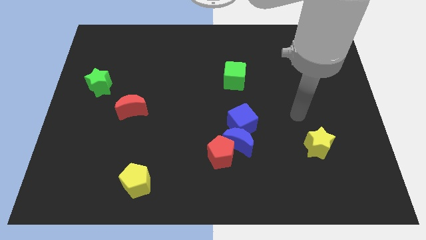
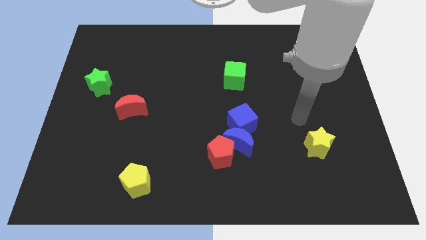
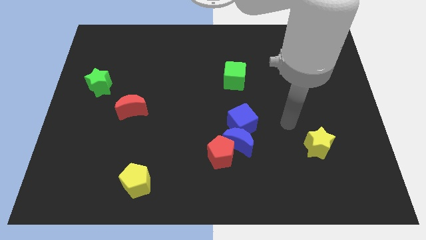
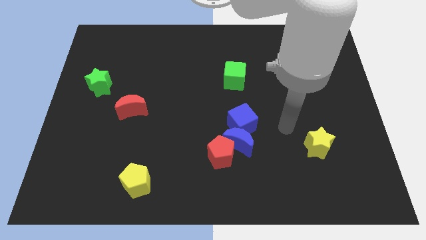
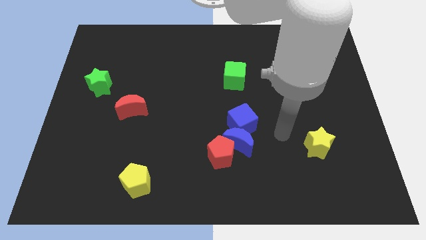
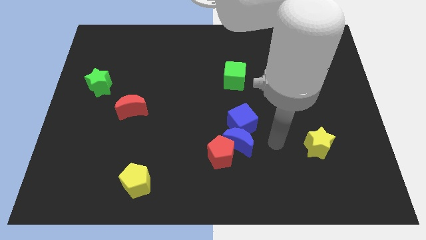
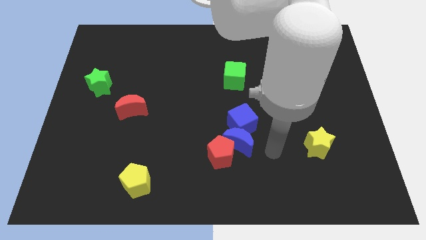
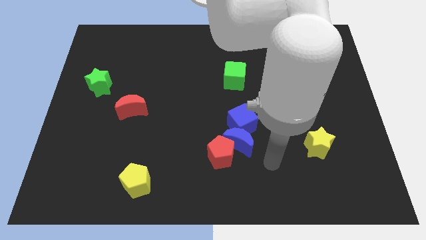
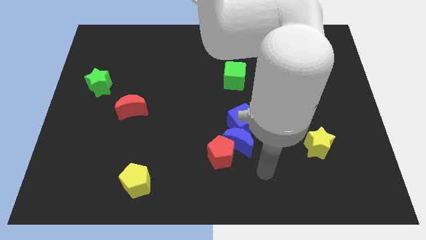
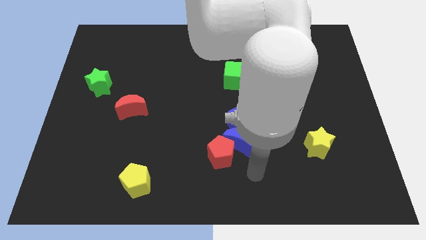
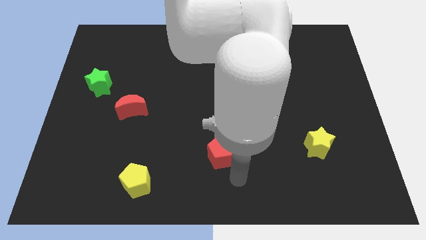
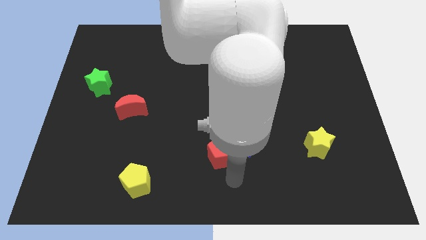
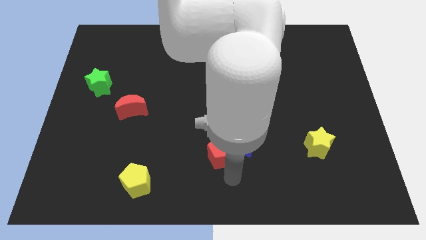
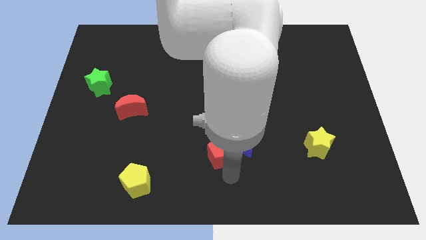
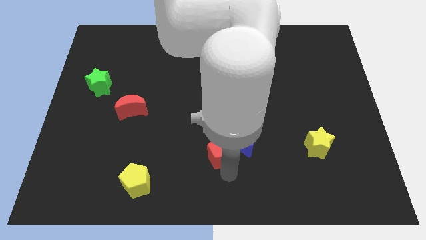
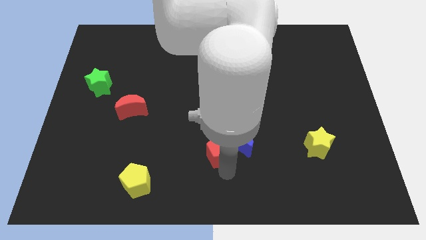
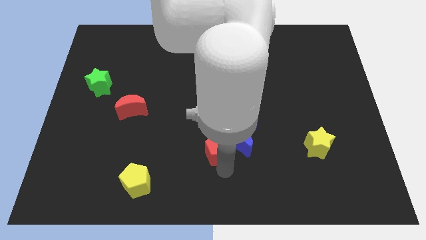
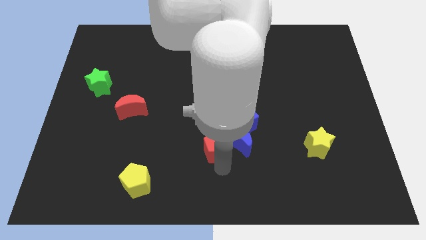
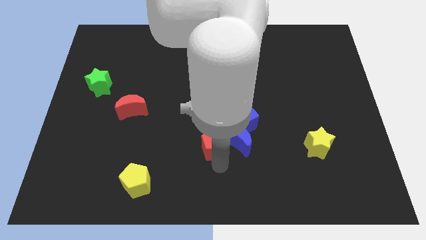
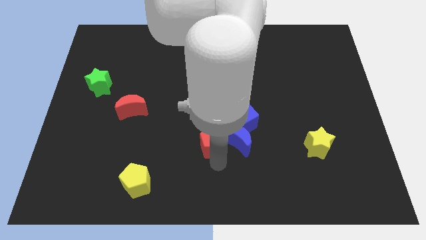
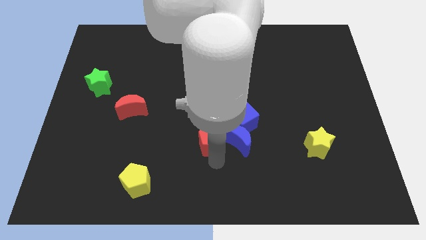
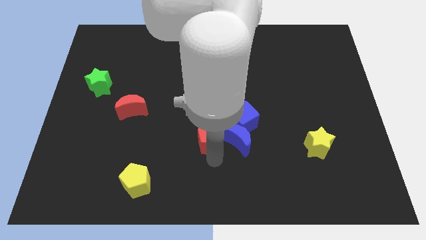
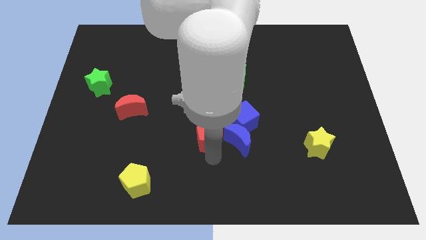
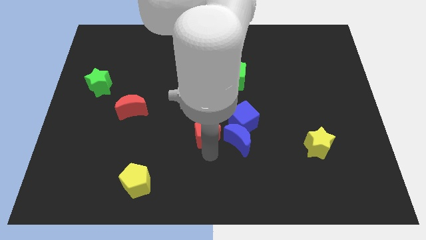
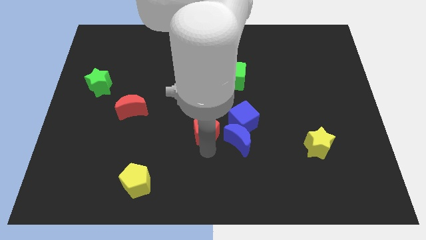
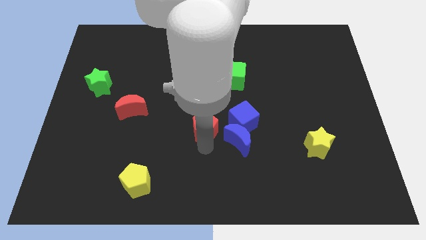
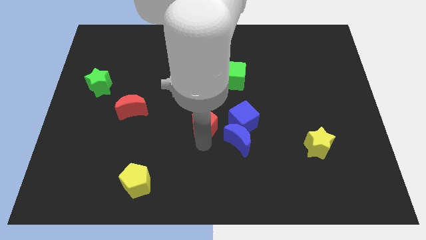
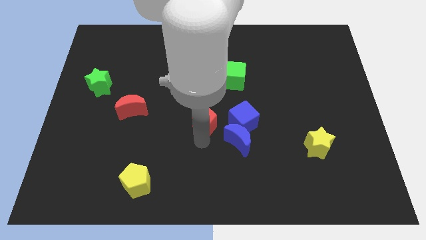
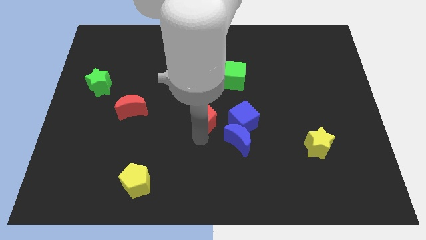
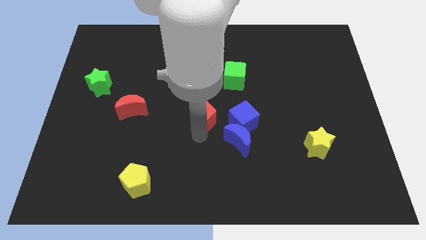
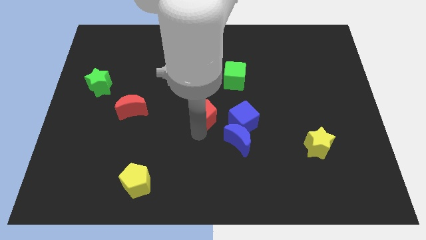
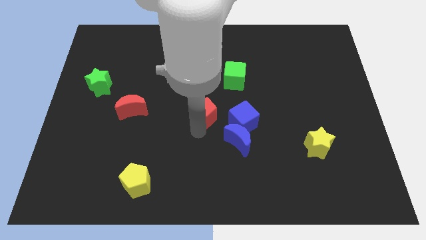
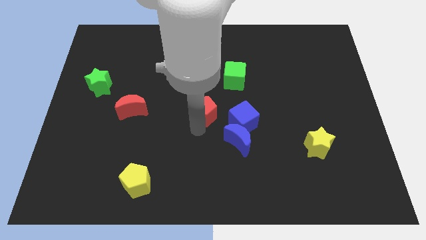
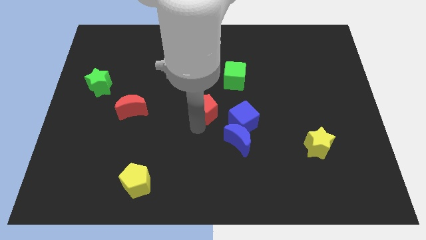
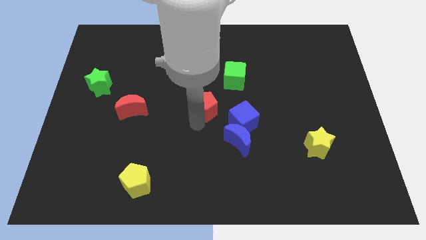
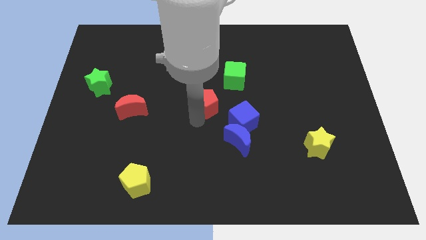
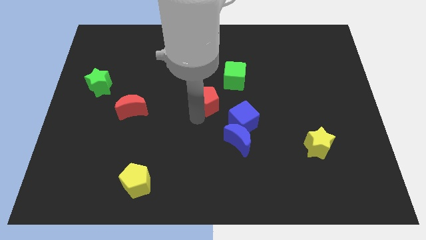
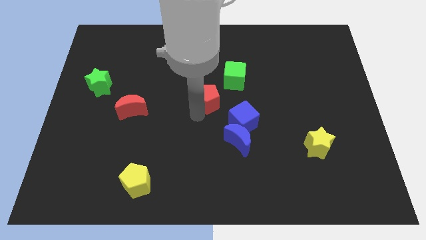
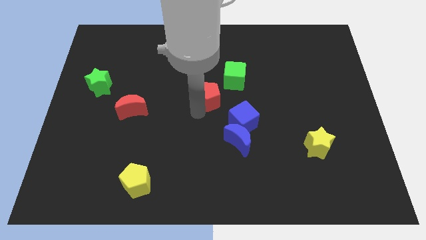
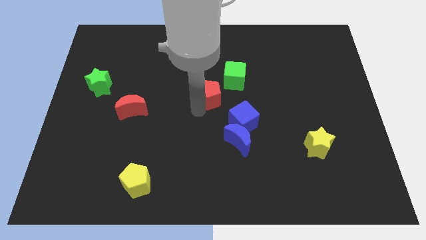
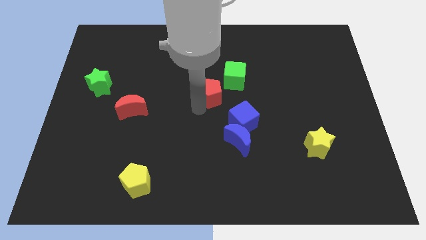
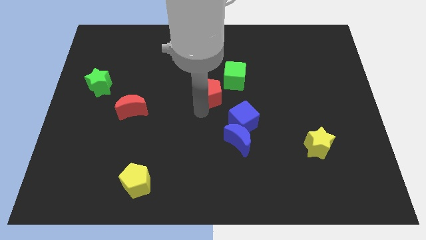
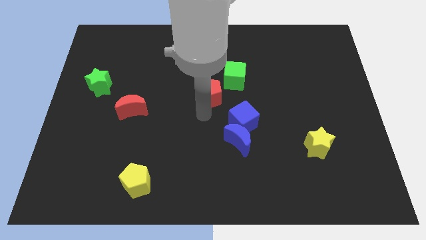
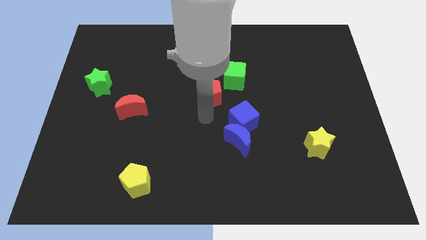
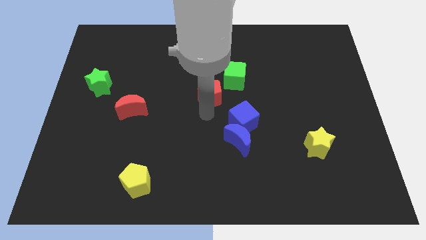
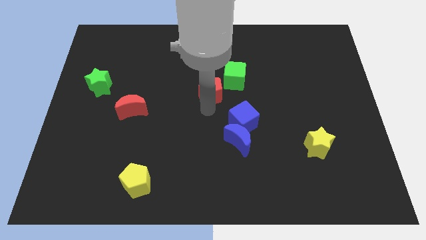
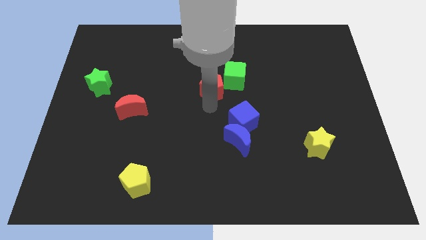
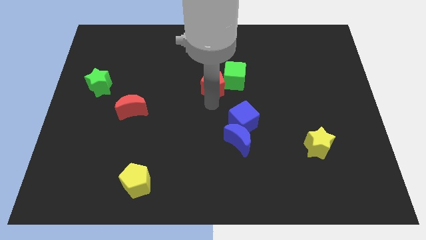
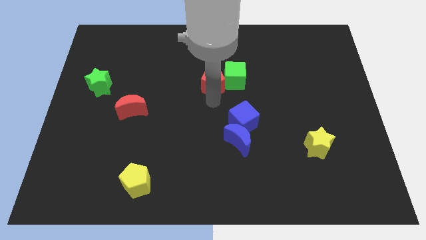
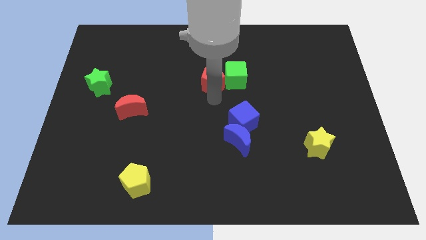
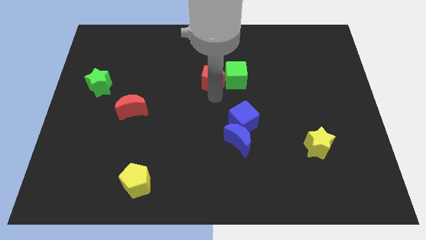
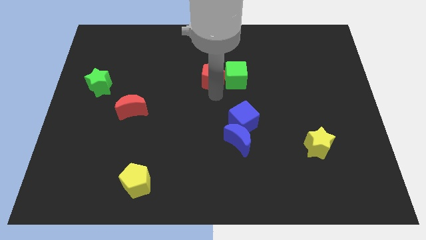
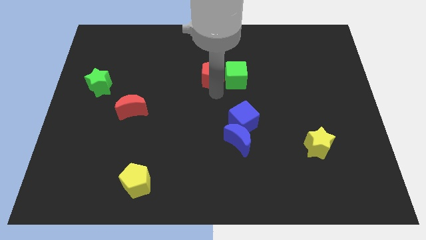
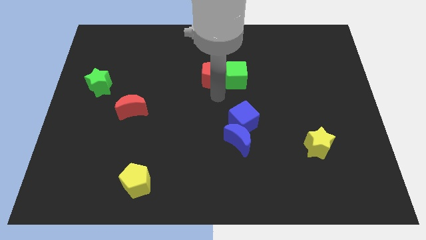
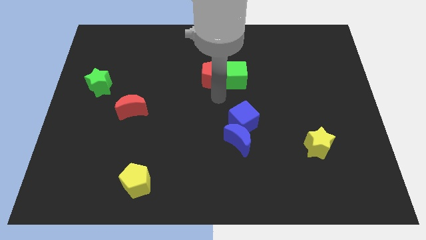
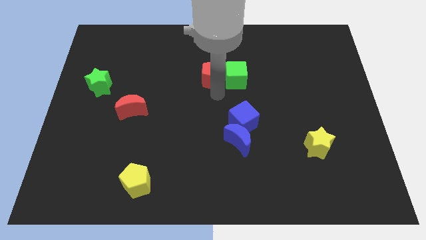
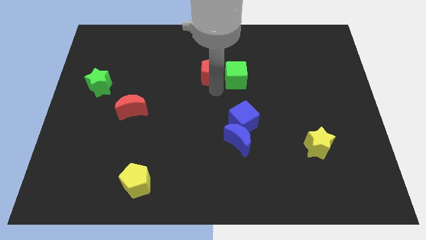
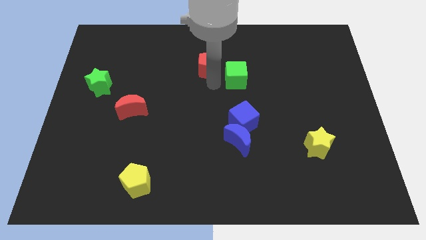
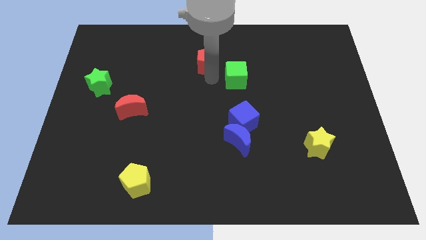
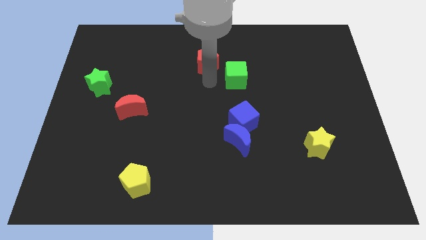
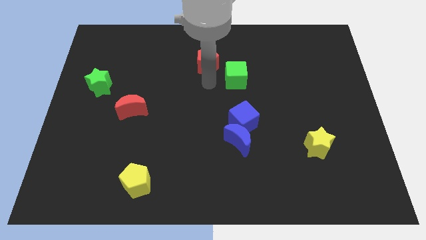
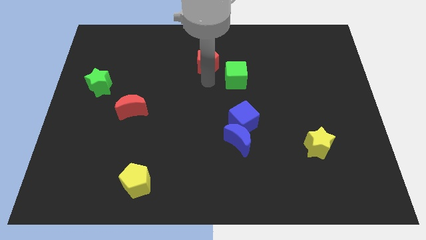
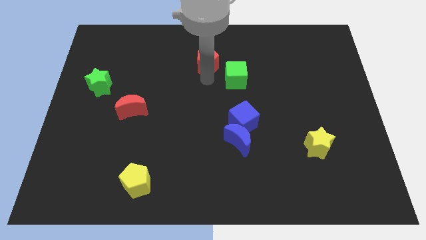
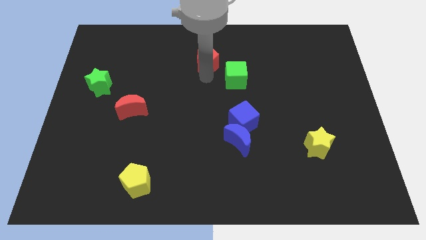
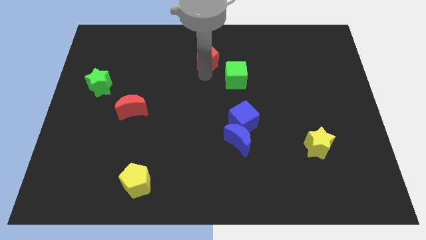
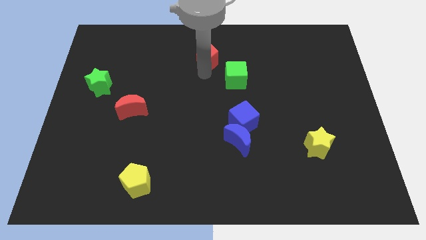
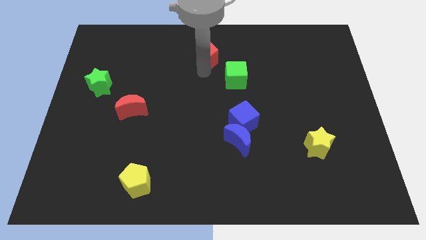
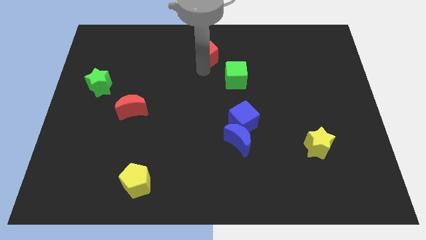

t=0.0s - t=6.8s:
move the red pentagon to the top side
